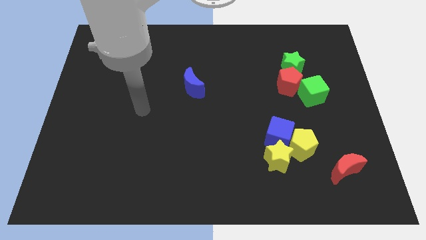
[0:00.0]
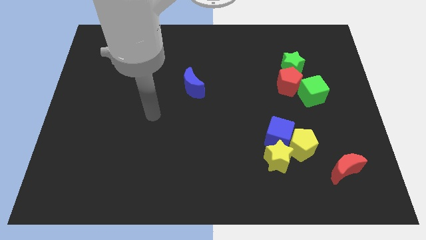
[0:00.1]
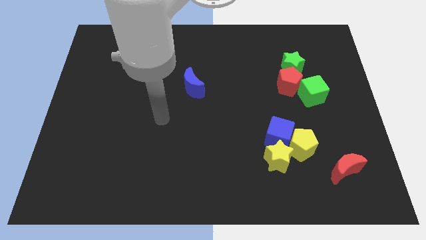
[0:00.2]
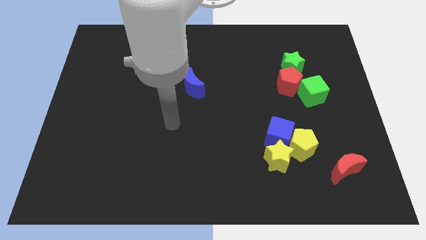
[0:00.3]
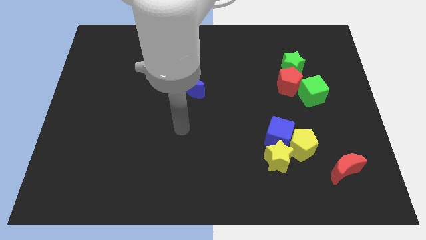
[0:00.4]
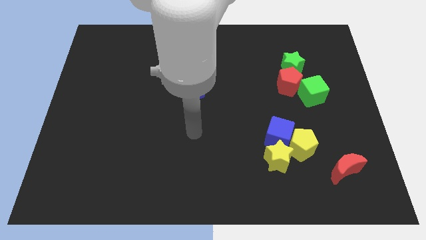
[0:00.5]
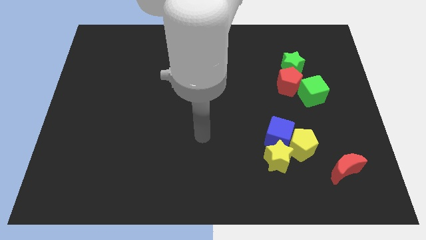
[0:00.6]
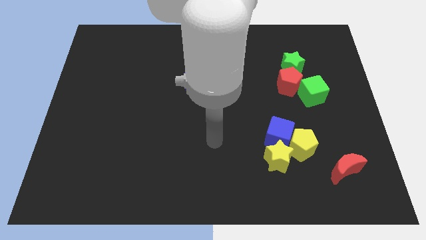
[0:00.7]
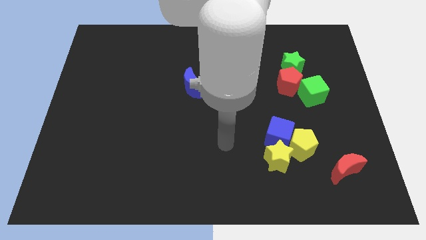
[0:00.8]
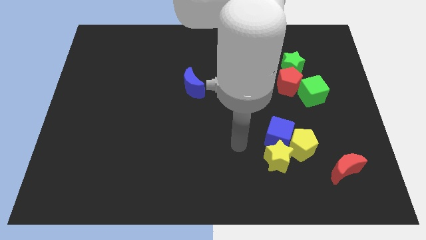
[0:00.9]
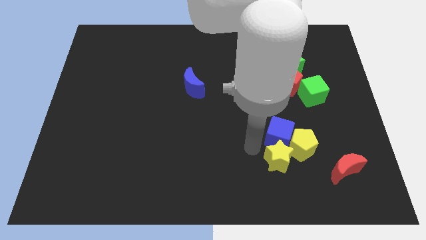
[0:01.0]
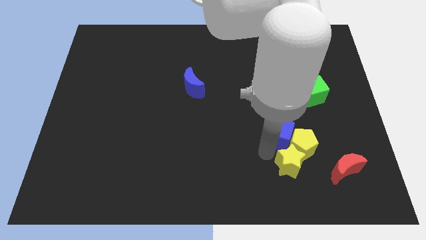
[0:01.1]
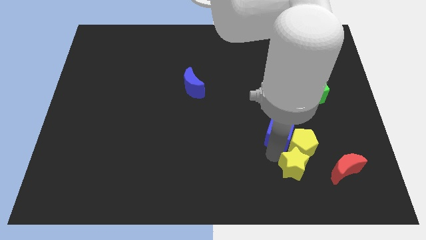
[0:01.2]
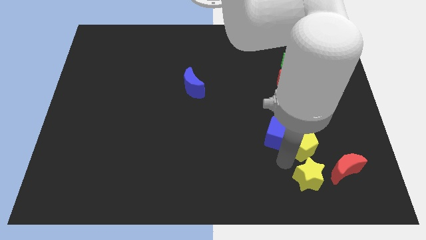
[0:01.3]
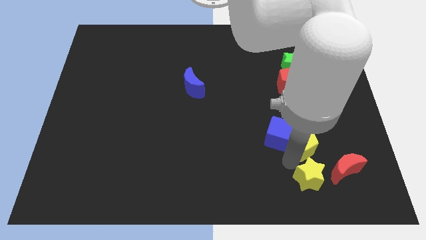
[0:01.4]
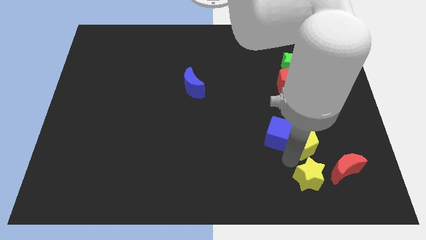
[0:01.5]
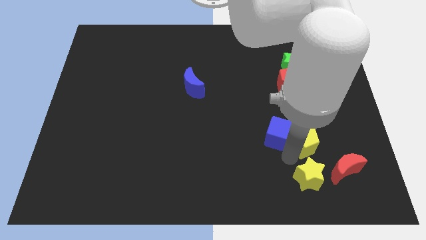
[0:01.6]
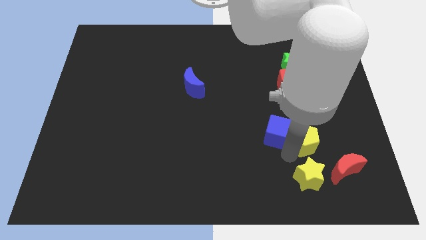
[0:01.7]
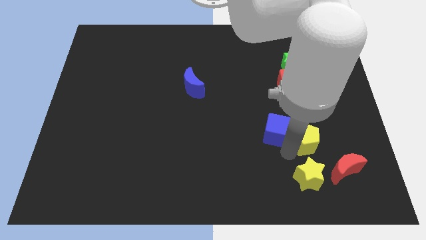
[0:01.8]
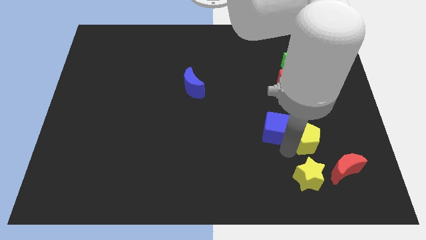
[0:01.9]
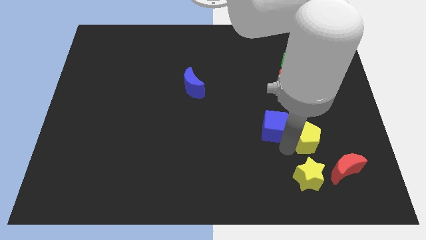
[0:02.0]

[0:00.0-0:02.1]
pull the blue cube apart from the yellow pentagon and yellow star

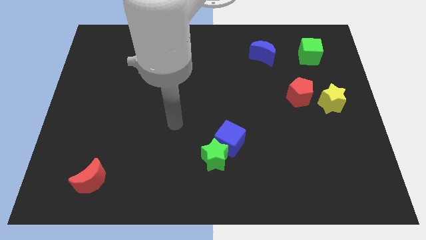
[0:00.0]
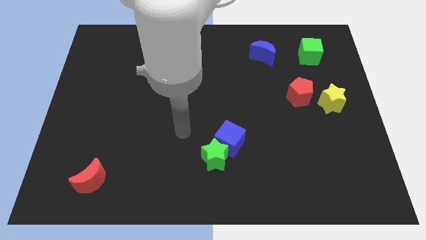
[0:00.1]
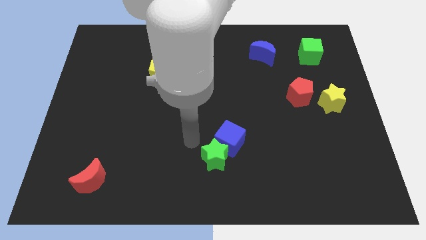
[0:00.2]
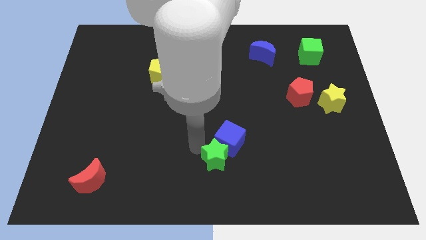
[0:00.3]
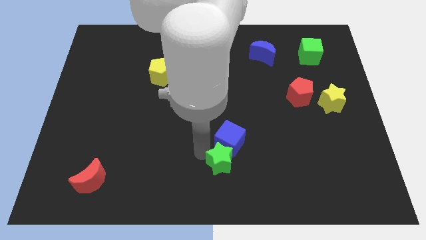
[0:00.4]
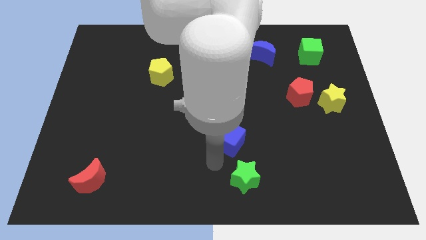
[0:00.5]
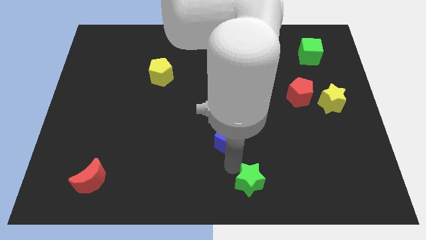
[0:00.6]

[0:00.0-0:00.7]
separate the blue cube from the green star

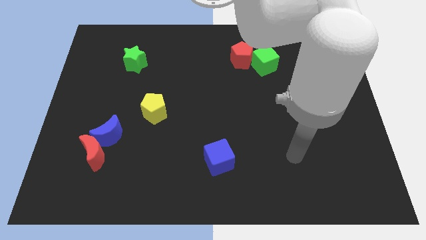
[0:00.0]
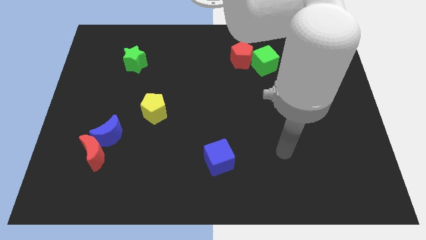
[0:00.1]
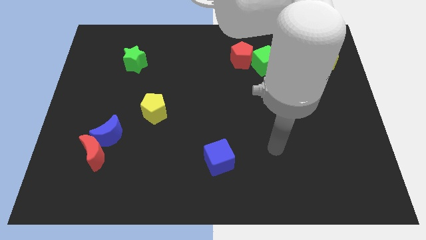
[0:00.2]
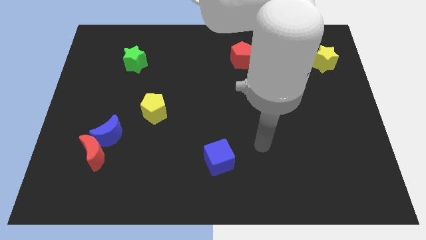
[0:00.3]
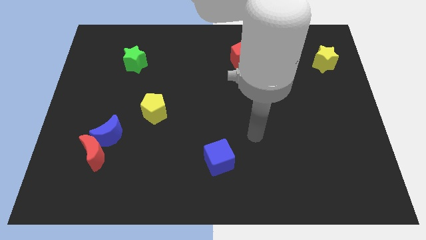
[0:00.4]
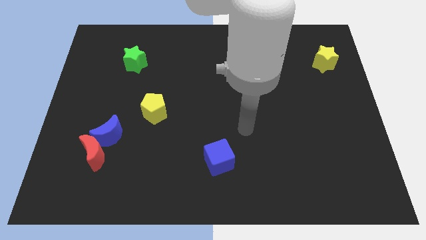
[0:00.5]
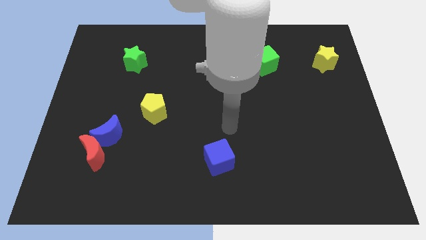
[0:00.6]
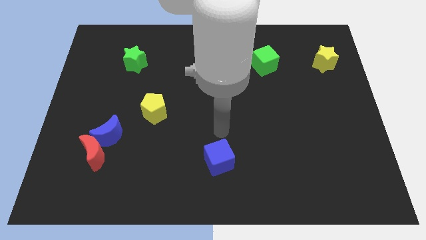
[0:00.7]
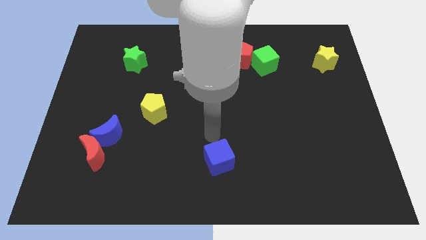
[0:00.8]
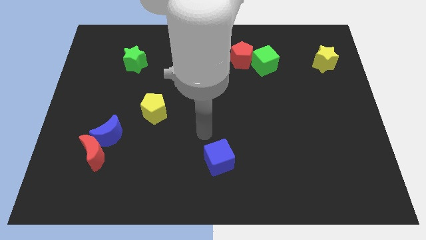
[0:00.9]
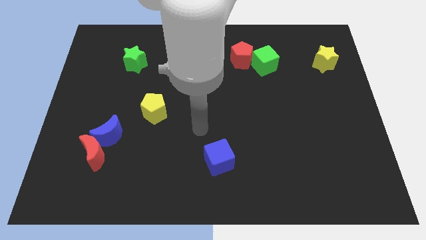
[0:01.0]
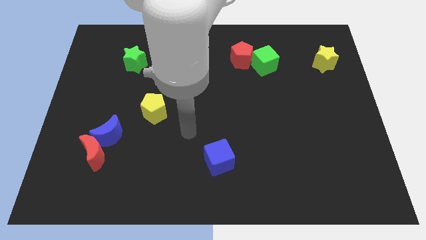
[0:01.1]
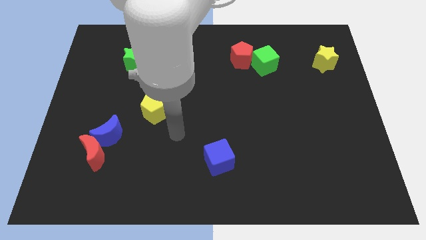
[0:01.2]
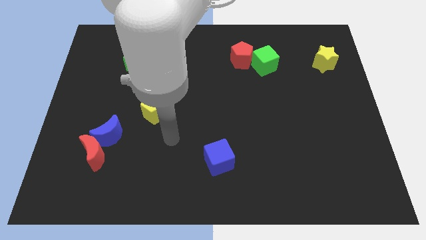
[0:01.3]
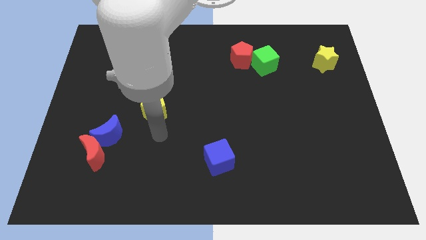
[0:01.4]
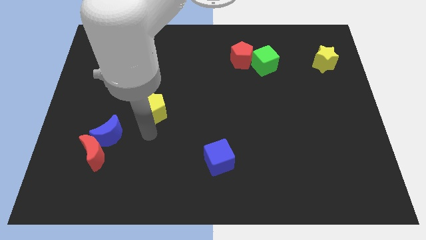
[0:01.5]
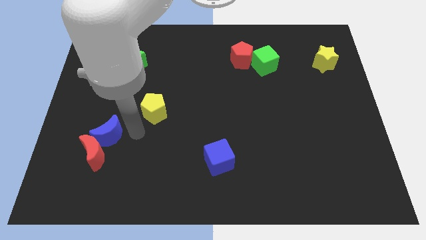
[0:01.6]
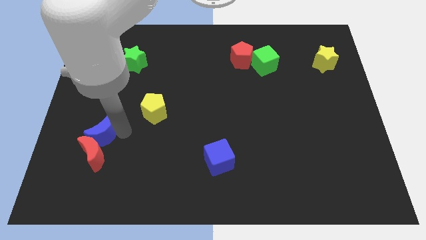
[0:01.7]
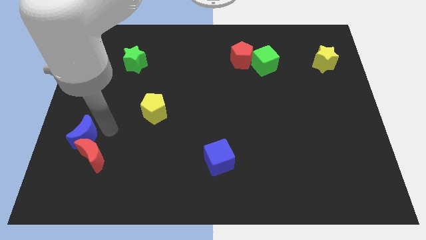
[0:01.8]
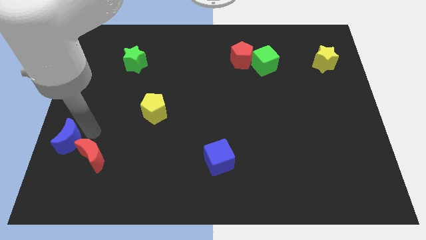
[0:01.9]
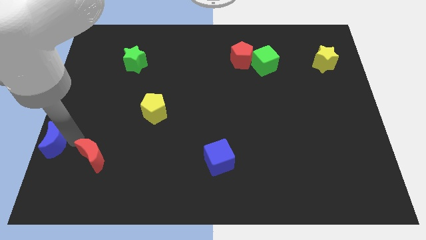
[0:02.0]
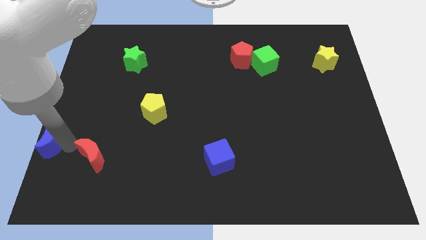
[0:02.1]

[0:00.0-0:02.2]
move the red moon away from the blue moon

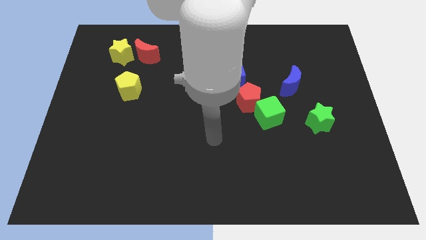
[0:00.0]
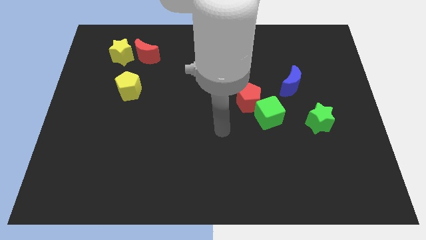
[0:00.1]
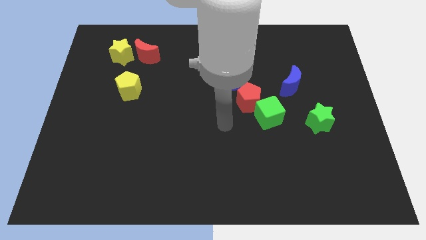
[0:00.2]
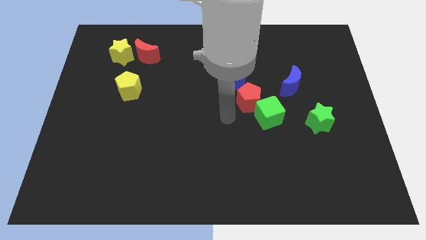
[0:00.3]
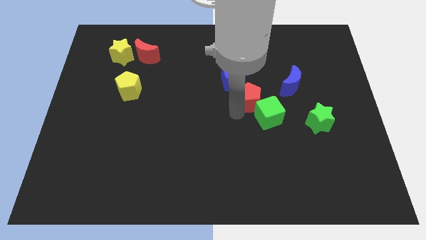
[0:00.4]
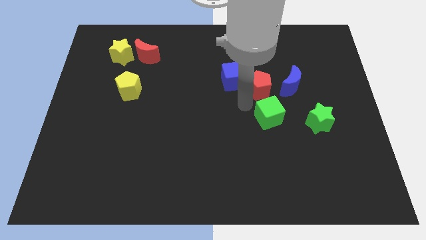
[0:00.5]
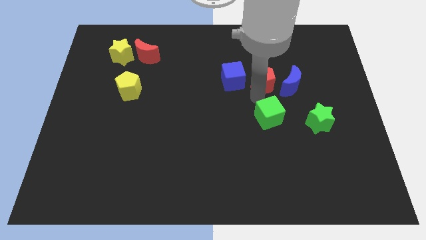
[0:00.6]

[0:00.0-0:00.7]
move the green cube away from the red pentagon

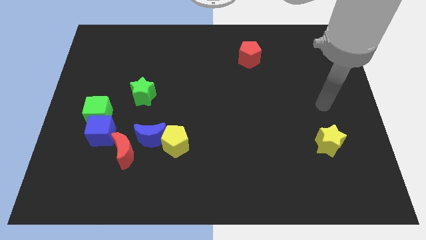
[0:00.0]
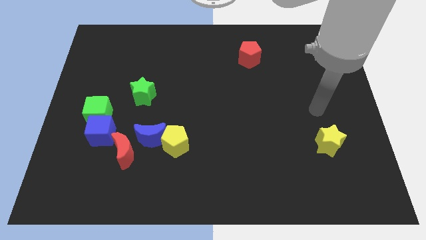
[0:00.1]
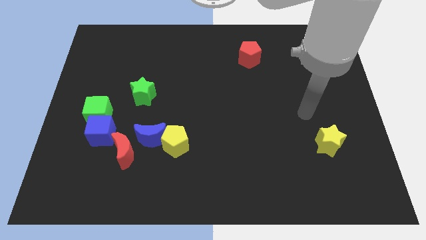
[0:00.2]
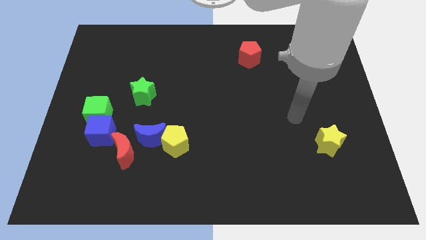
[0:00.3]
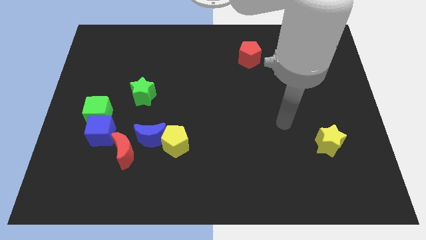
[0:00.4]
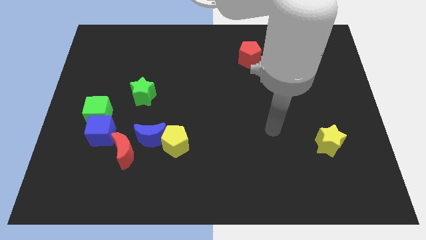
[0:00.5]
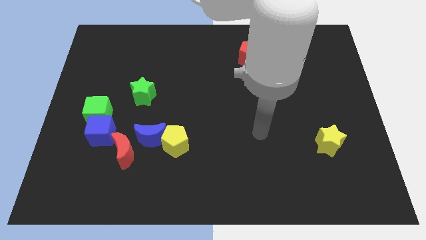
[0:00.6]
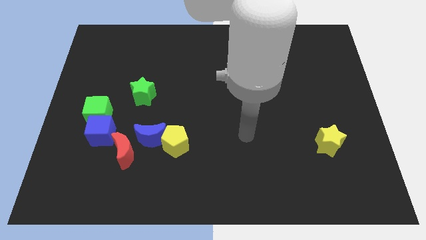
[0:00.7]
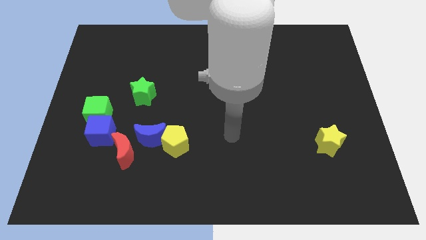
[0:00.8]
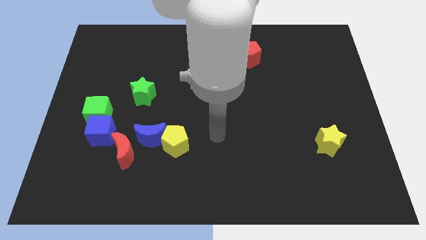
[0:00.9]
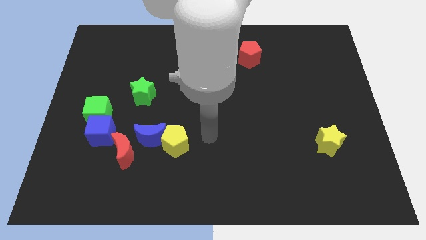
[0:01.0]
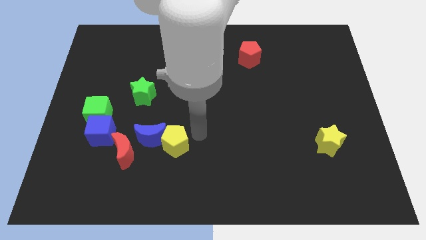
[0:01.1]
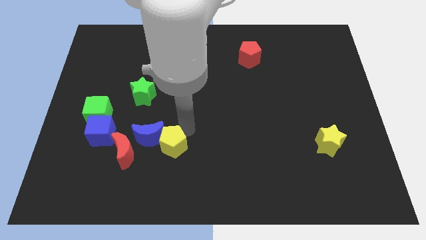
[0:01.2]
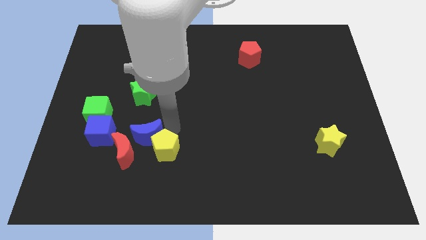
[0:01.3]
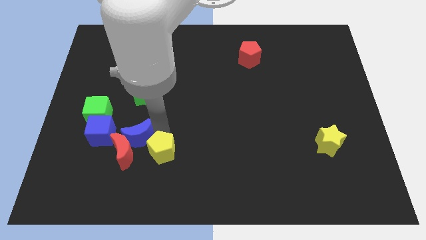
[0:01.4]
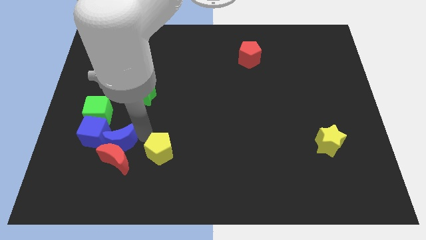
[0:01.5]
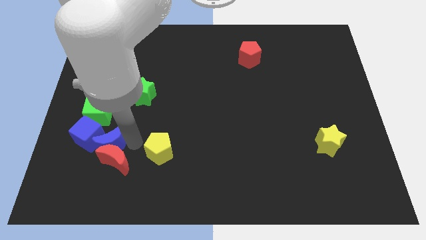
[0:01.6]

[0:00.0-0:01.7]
separate the yellow pentagon from the blue moon

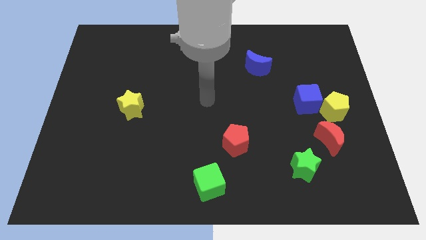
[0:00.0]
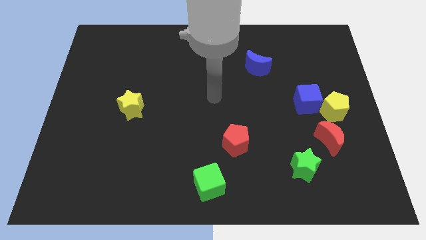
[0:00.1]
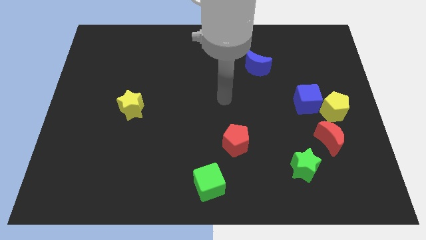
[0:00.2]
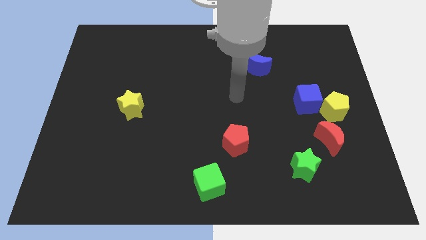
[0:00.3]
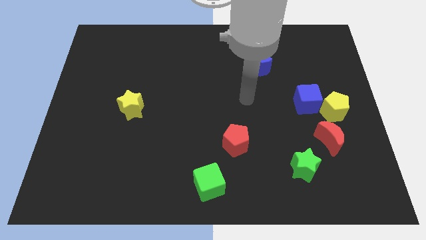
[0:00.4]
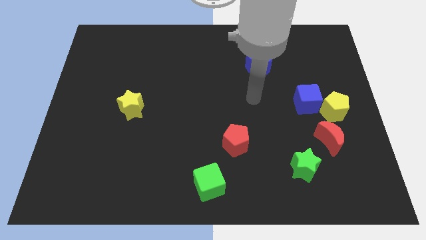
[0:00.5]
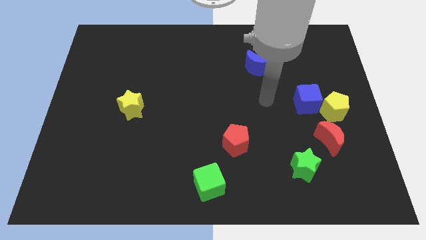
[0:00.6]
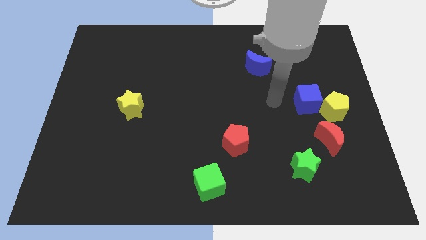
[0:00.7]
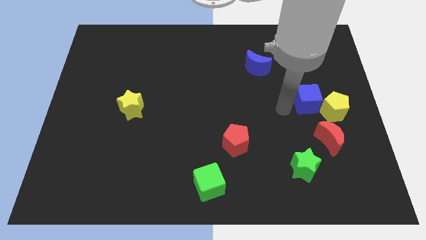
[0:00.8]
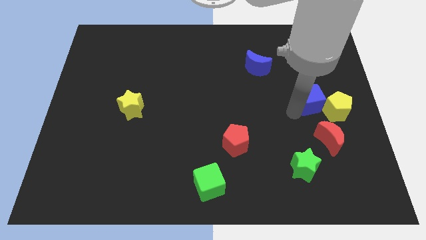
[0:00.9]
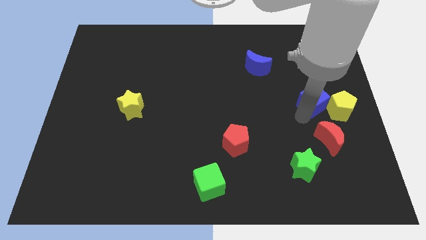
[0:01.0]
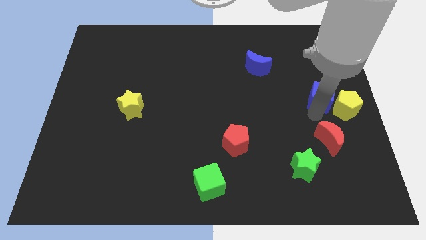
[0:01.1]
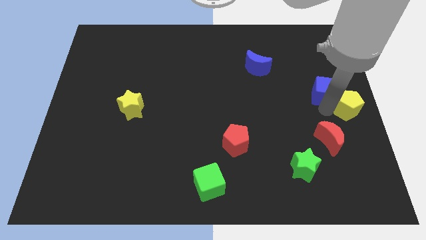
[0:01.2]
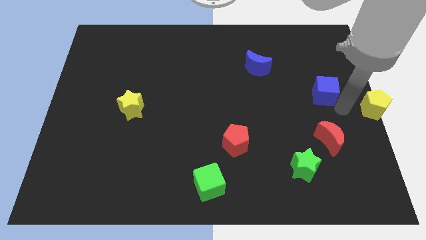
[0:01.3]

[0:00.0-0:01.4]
pull the blue cube apart from the yellow pentagon

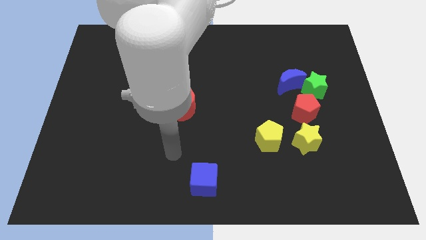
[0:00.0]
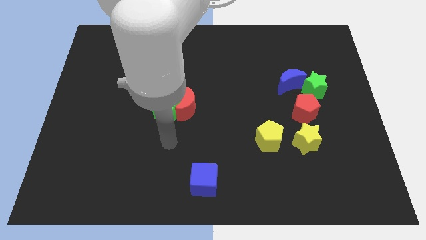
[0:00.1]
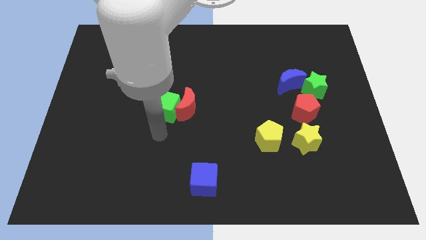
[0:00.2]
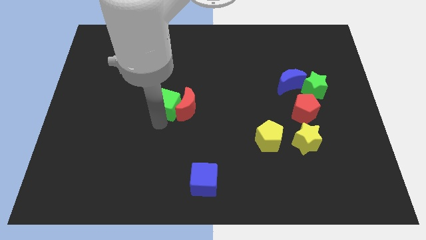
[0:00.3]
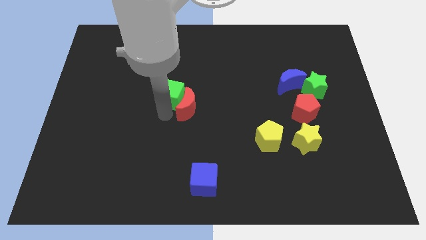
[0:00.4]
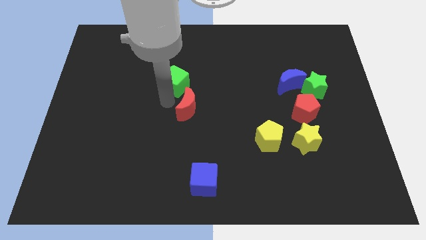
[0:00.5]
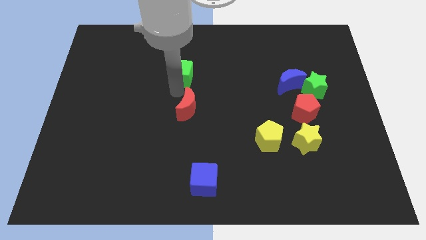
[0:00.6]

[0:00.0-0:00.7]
move the red moon away from the green cube
